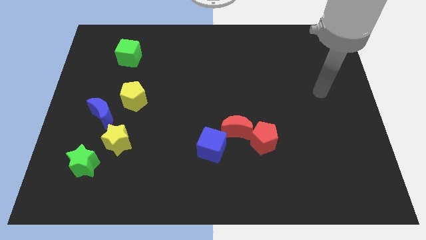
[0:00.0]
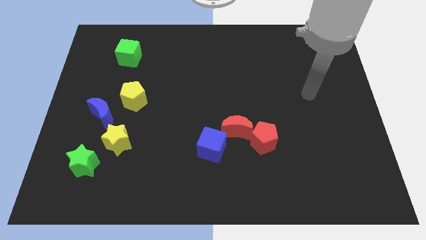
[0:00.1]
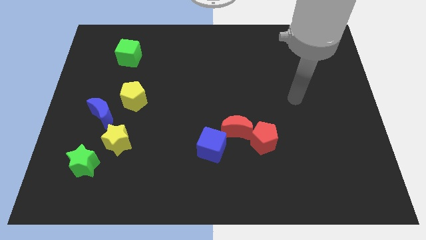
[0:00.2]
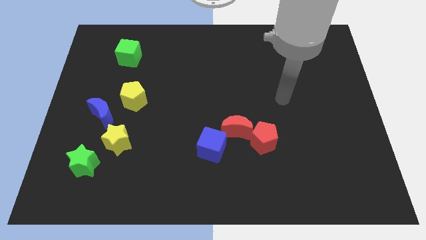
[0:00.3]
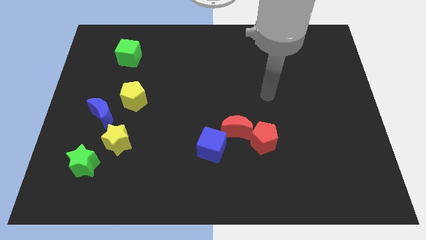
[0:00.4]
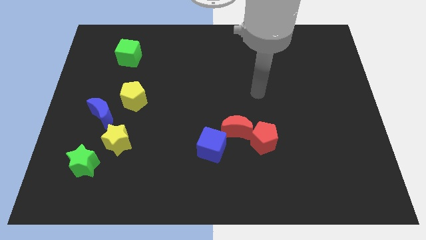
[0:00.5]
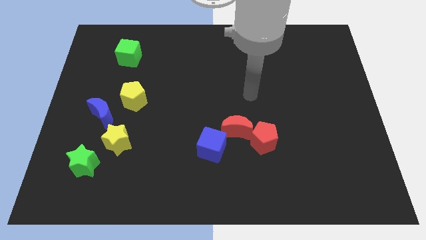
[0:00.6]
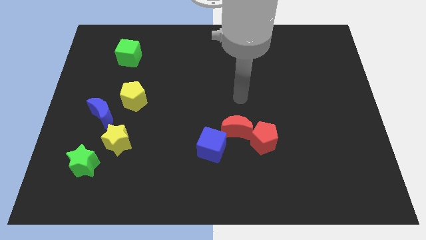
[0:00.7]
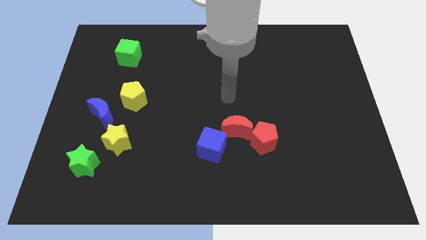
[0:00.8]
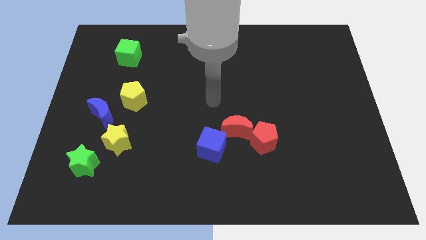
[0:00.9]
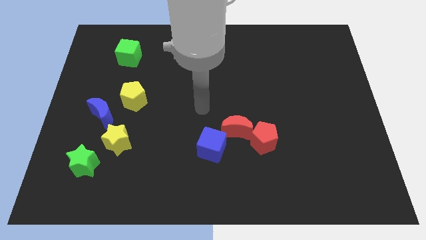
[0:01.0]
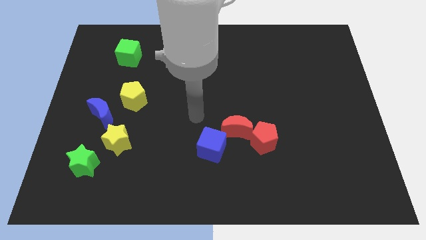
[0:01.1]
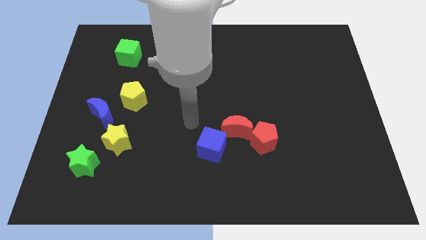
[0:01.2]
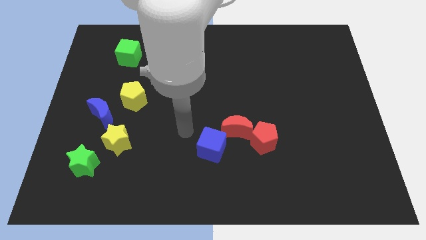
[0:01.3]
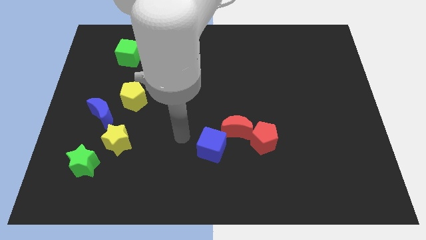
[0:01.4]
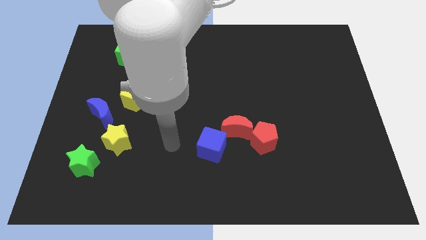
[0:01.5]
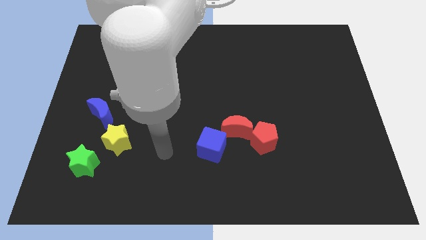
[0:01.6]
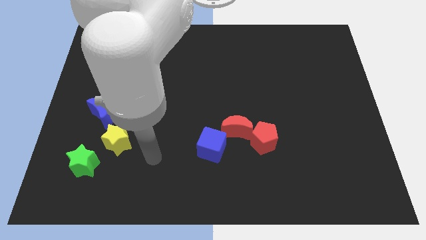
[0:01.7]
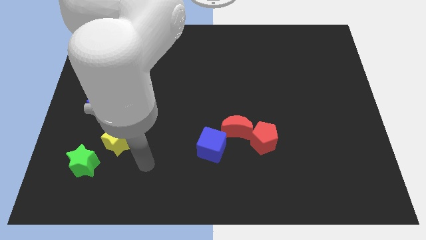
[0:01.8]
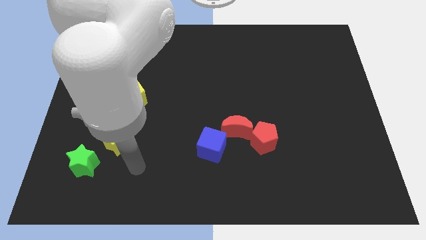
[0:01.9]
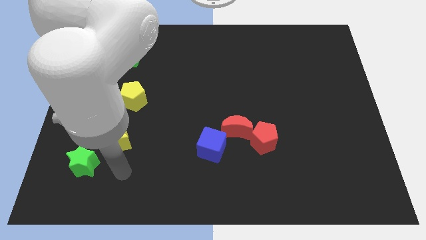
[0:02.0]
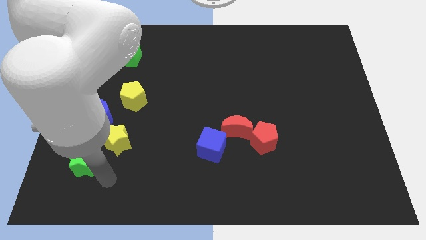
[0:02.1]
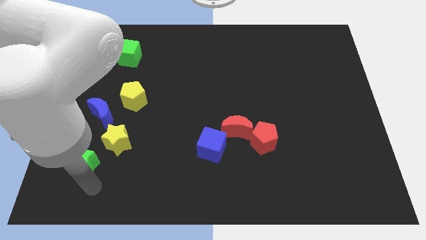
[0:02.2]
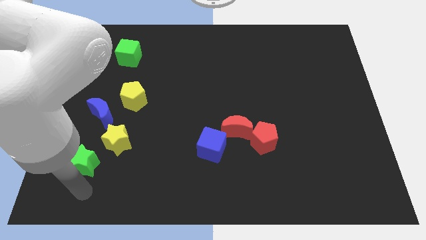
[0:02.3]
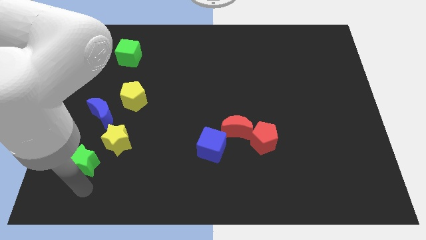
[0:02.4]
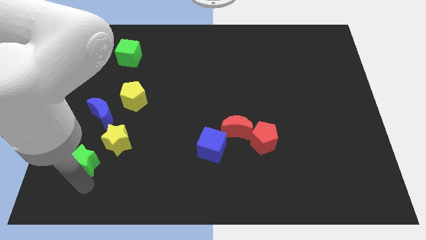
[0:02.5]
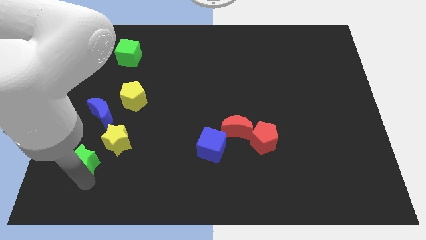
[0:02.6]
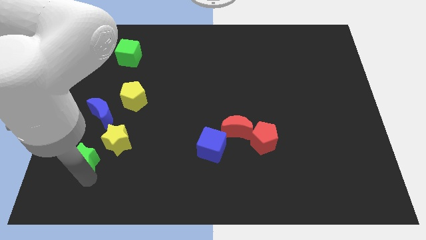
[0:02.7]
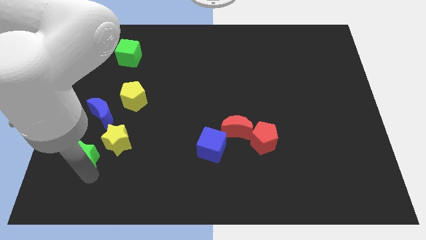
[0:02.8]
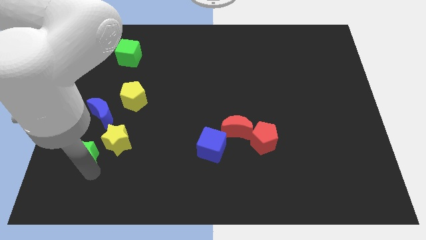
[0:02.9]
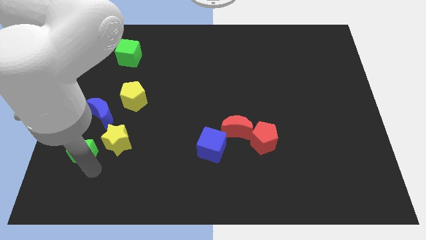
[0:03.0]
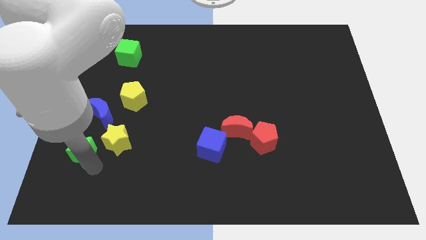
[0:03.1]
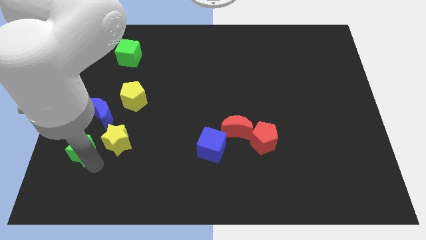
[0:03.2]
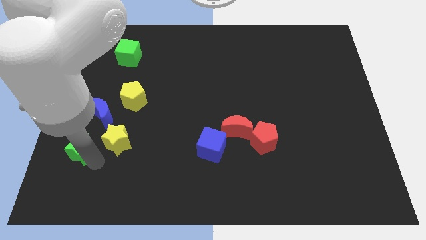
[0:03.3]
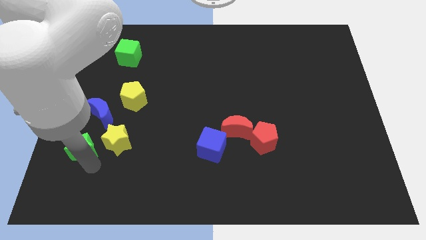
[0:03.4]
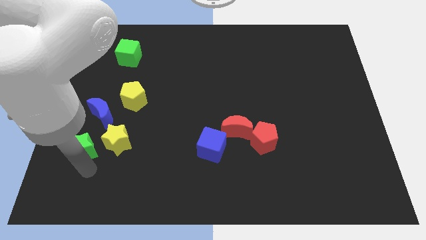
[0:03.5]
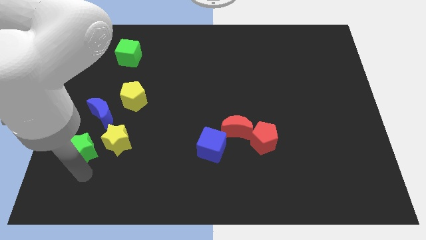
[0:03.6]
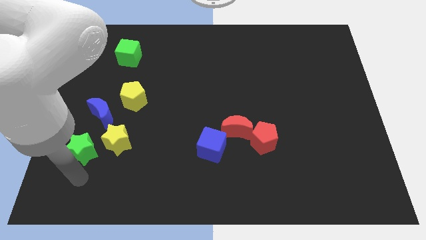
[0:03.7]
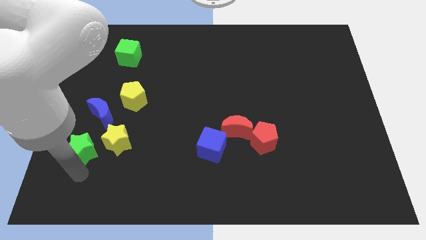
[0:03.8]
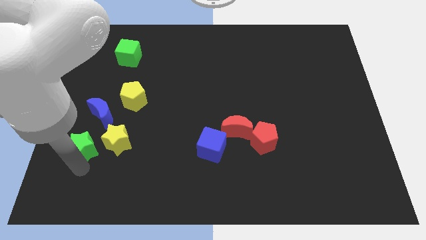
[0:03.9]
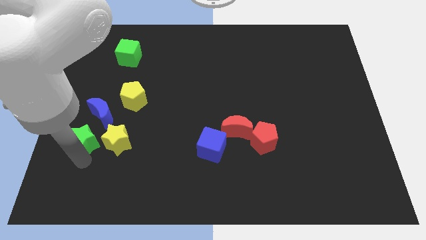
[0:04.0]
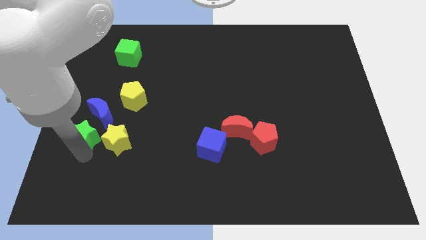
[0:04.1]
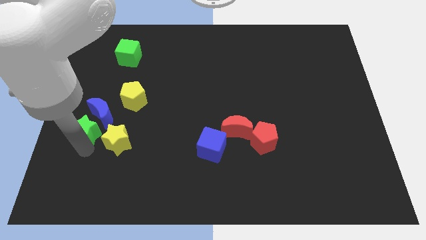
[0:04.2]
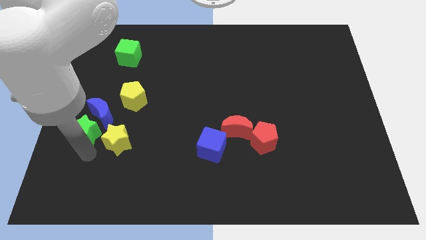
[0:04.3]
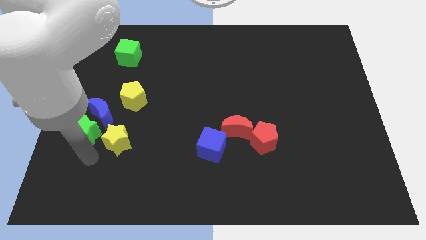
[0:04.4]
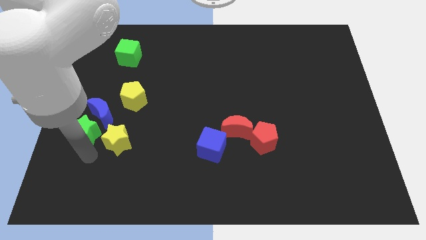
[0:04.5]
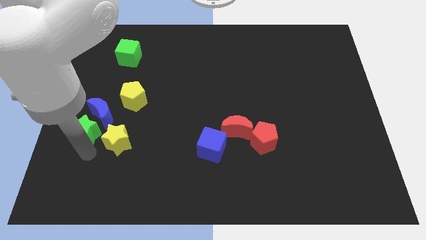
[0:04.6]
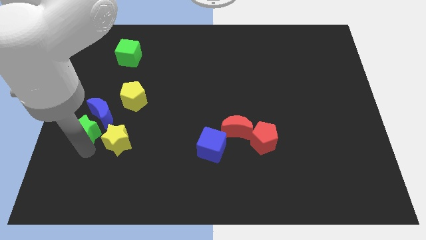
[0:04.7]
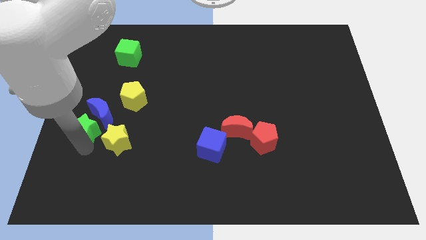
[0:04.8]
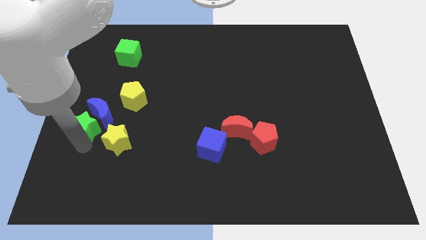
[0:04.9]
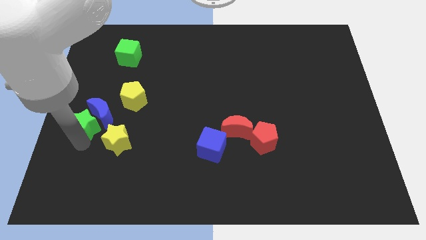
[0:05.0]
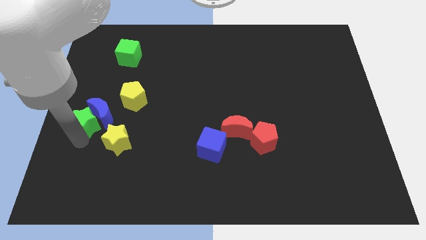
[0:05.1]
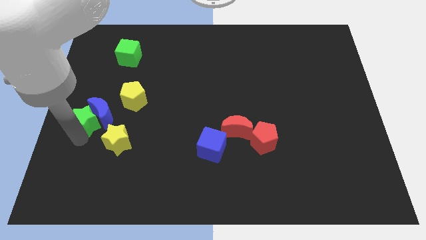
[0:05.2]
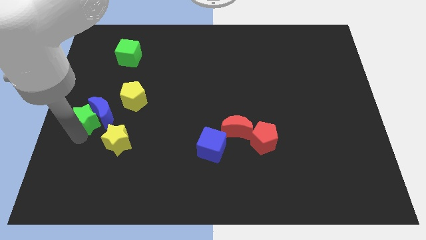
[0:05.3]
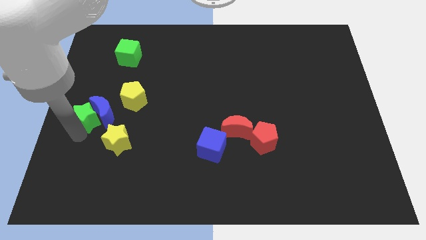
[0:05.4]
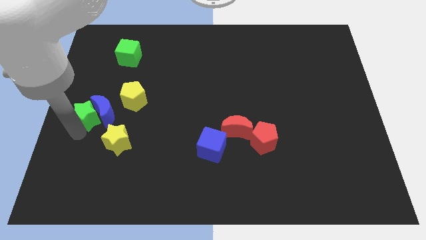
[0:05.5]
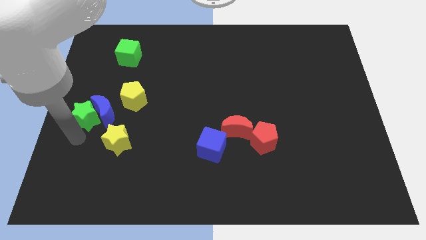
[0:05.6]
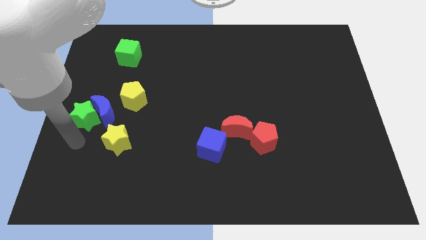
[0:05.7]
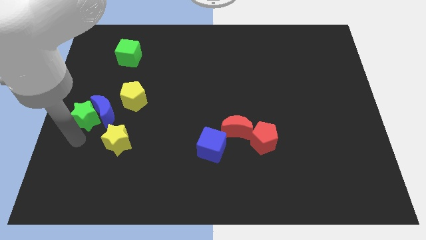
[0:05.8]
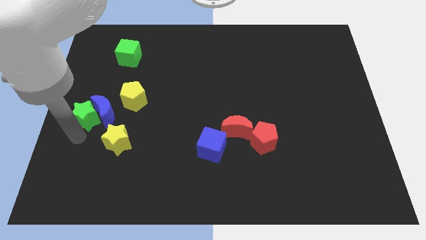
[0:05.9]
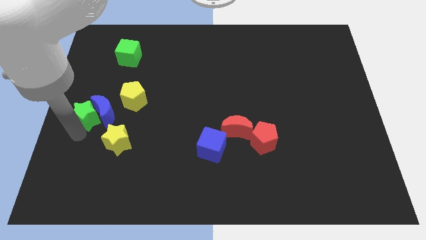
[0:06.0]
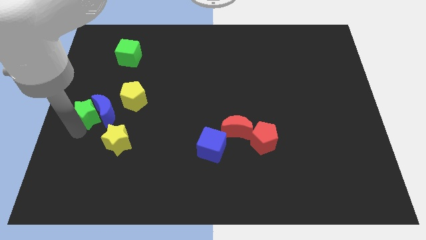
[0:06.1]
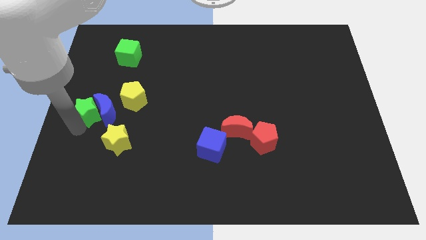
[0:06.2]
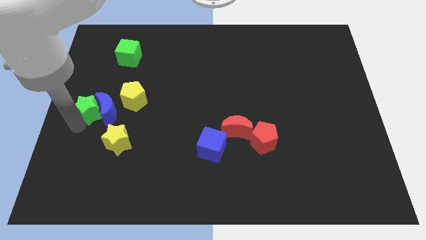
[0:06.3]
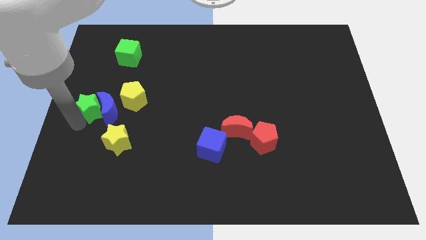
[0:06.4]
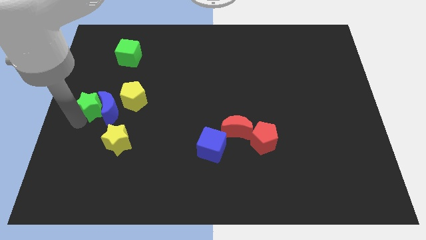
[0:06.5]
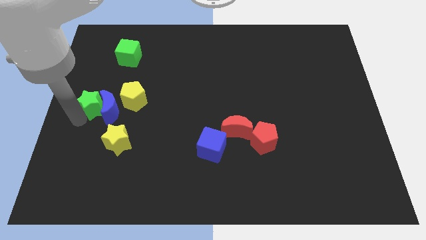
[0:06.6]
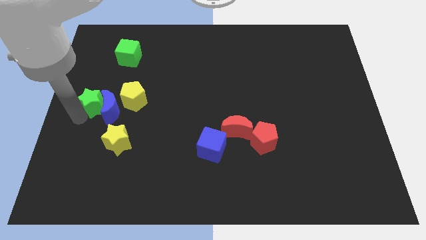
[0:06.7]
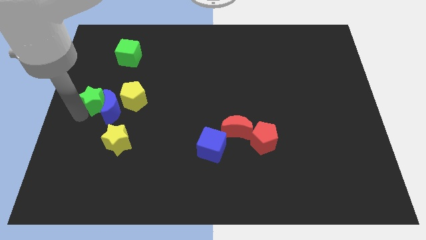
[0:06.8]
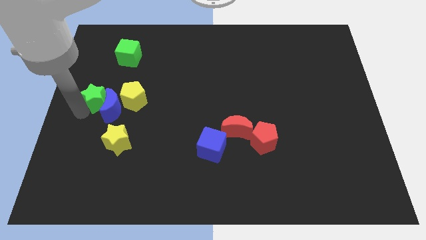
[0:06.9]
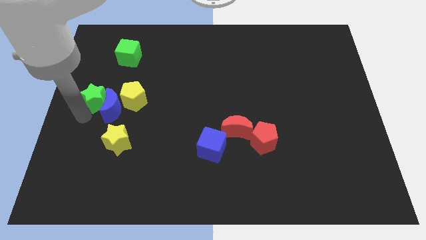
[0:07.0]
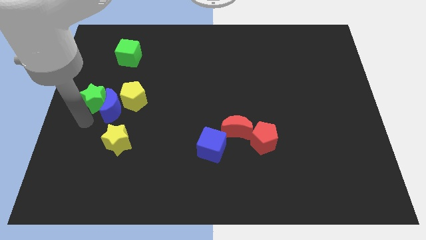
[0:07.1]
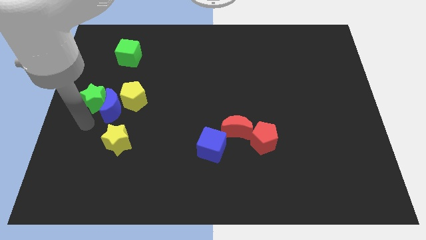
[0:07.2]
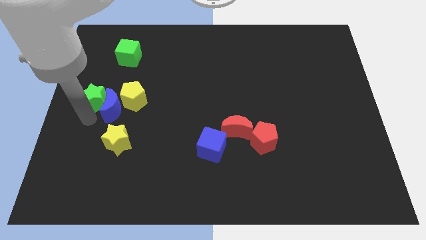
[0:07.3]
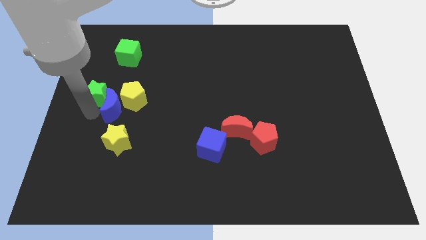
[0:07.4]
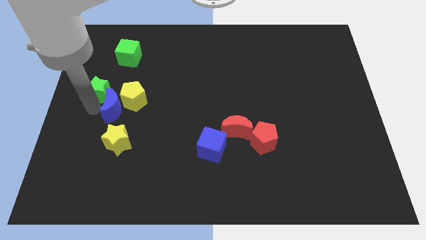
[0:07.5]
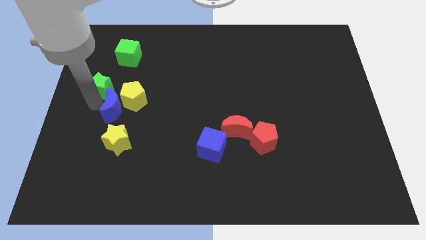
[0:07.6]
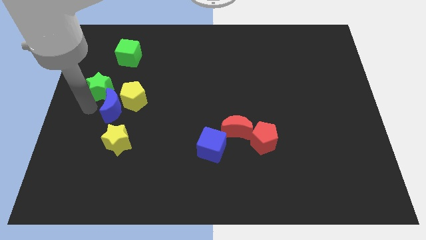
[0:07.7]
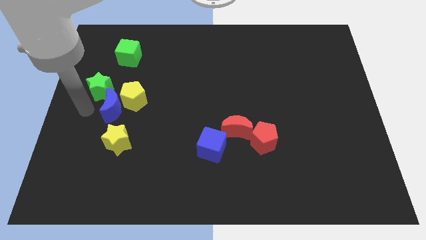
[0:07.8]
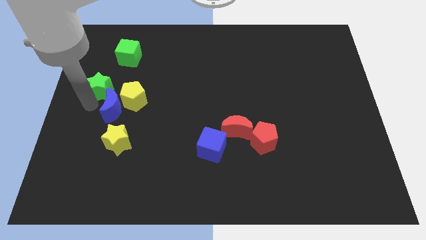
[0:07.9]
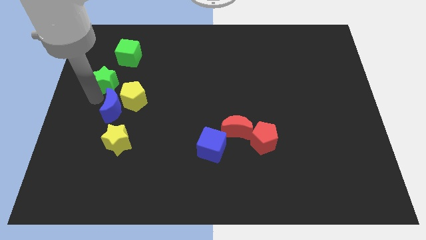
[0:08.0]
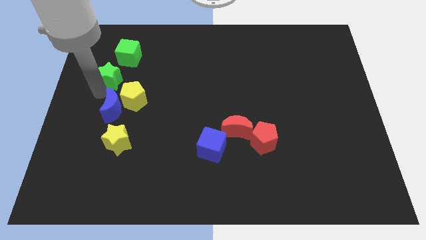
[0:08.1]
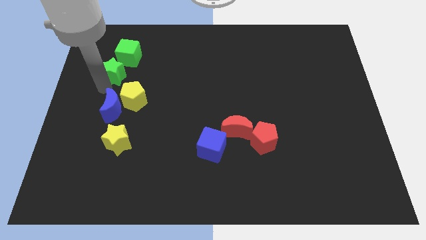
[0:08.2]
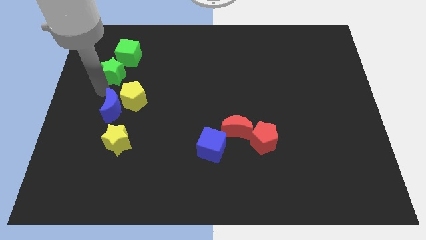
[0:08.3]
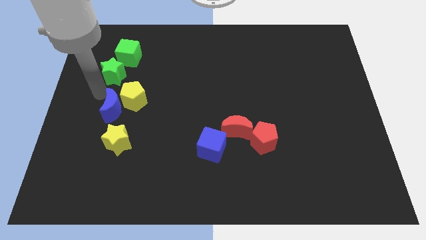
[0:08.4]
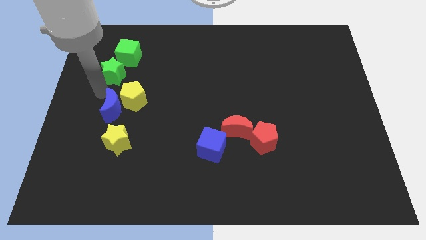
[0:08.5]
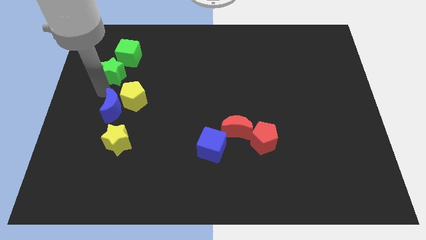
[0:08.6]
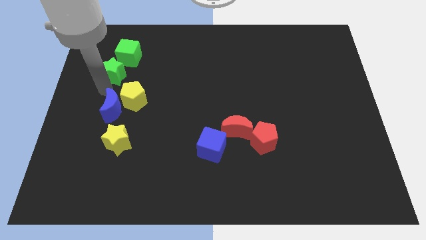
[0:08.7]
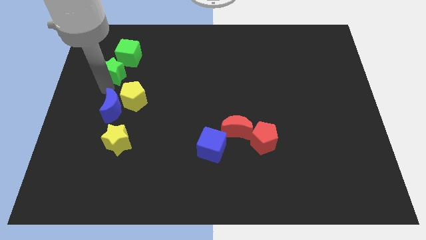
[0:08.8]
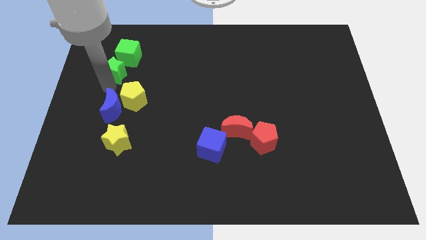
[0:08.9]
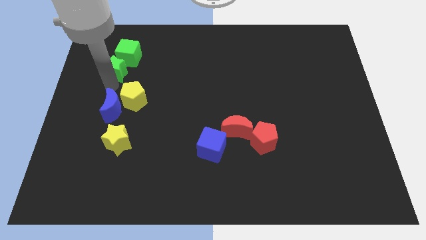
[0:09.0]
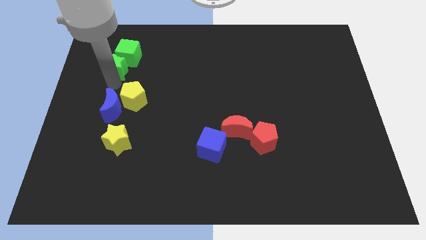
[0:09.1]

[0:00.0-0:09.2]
move the green star next to the green cube
